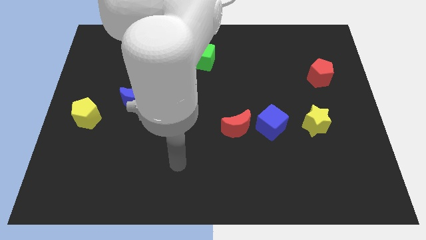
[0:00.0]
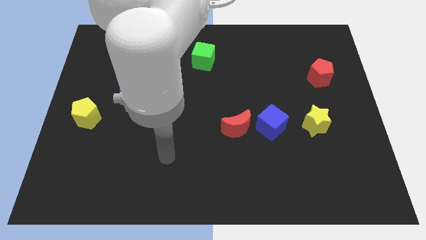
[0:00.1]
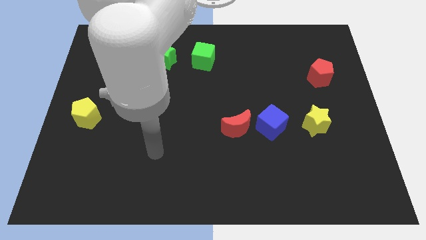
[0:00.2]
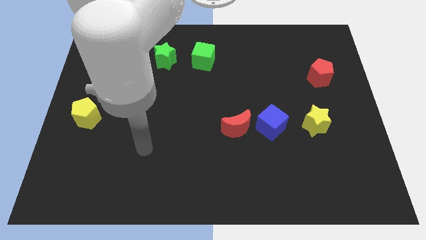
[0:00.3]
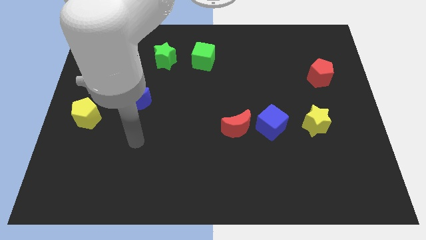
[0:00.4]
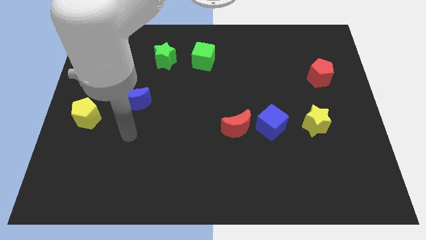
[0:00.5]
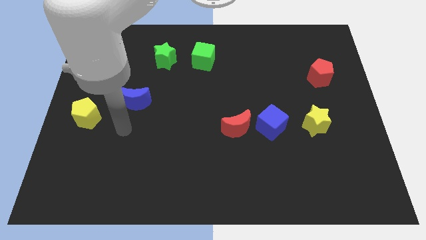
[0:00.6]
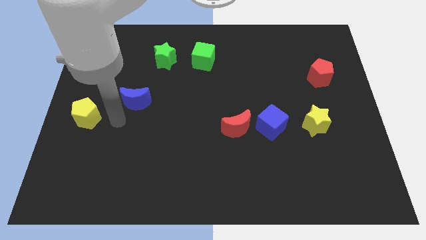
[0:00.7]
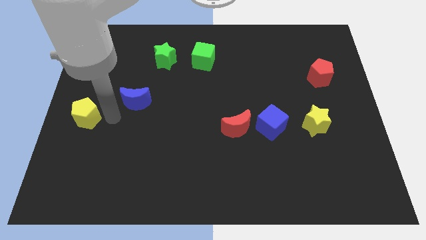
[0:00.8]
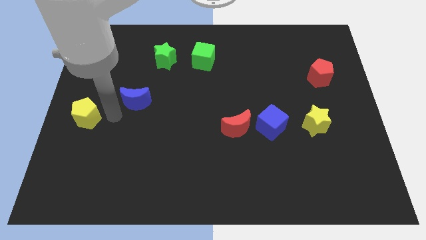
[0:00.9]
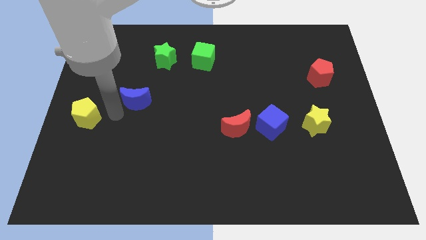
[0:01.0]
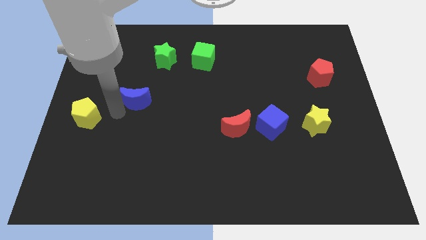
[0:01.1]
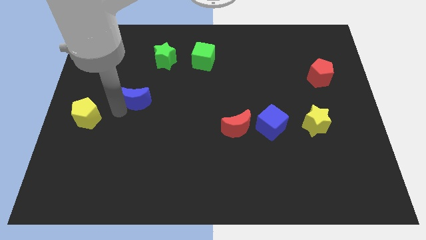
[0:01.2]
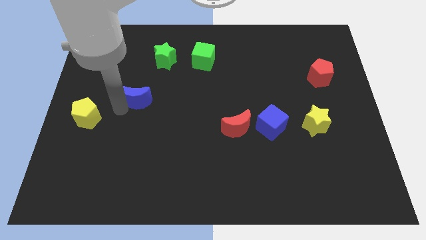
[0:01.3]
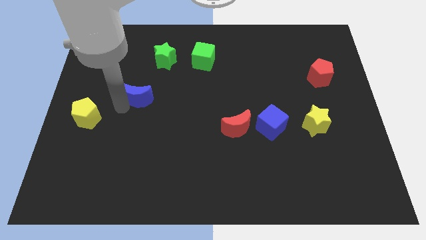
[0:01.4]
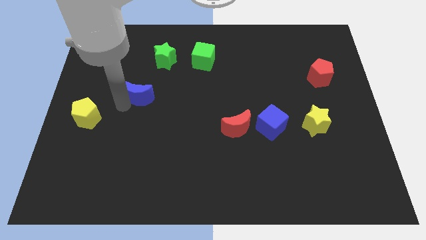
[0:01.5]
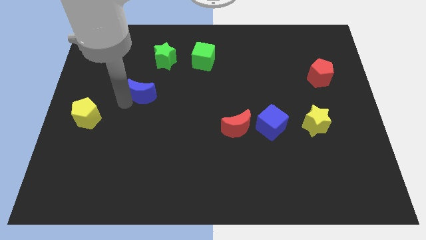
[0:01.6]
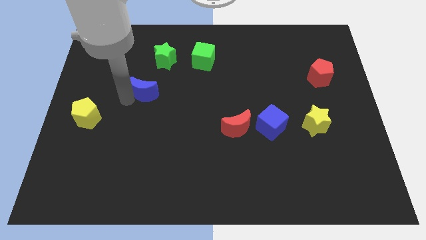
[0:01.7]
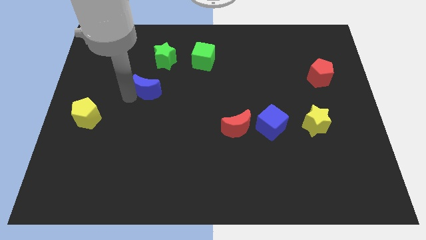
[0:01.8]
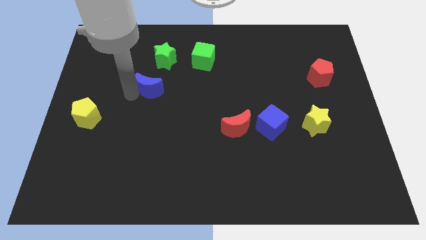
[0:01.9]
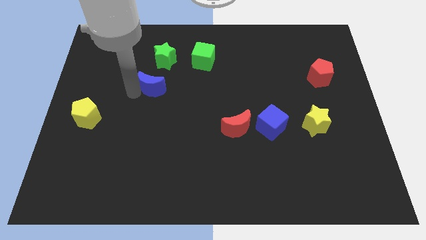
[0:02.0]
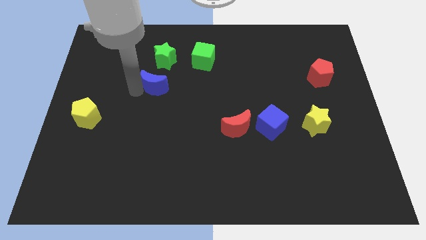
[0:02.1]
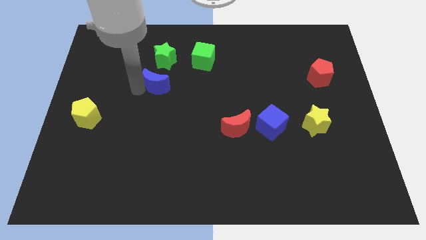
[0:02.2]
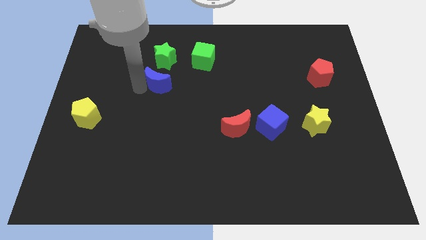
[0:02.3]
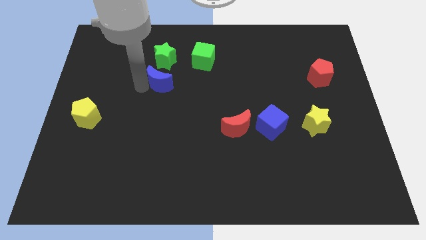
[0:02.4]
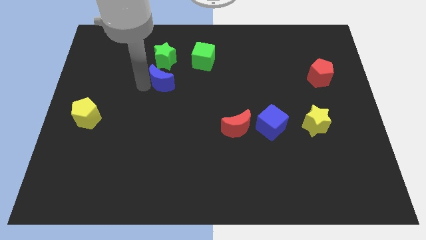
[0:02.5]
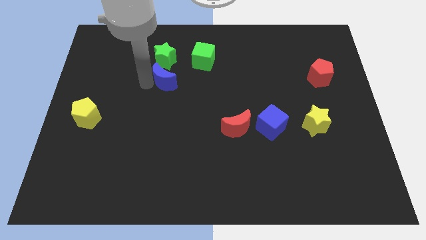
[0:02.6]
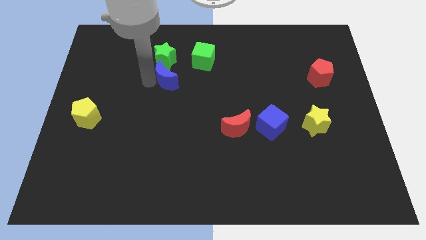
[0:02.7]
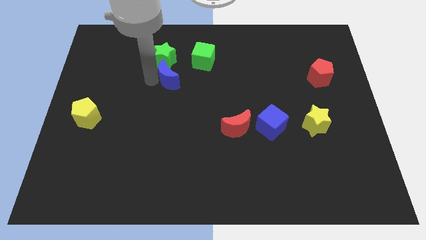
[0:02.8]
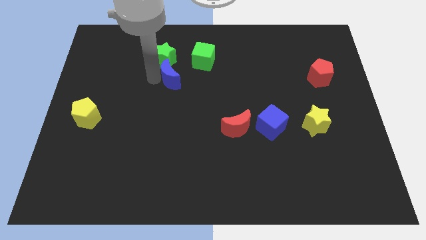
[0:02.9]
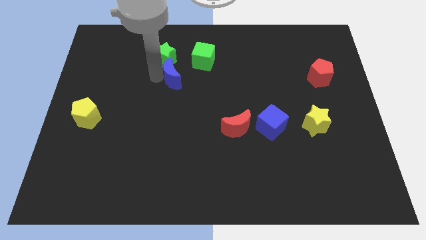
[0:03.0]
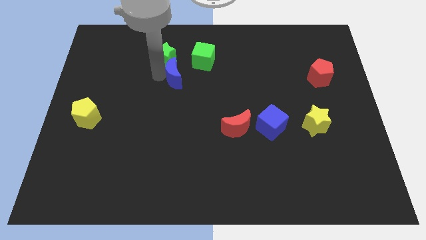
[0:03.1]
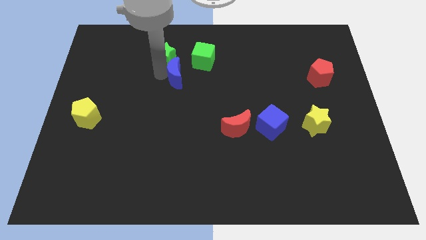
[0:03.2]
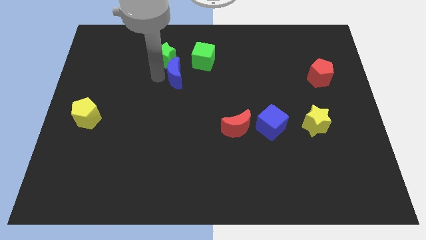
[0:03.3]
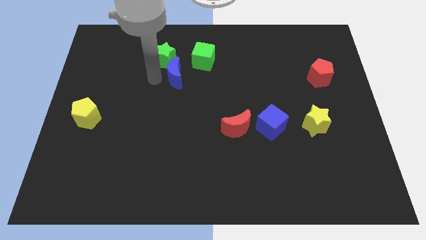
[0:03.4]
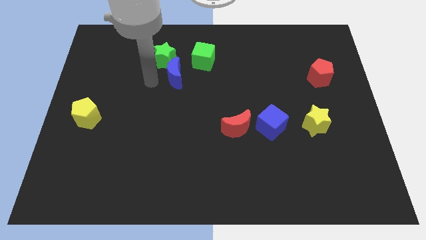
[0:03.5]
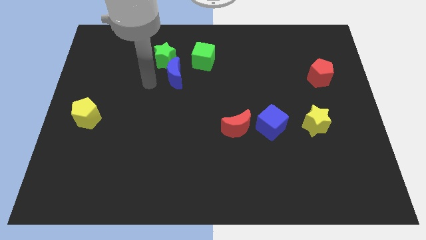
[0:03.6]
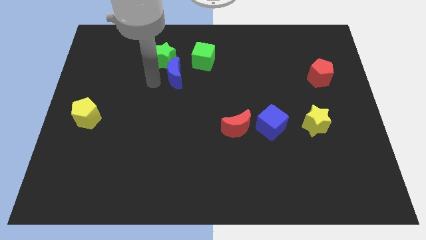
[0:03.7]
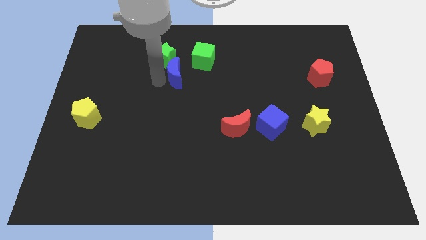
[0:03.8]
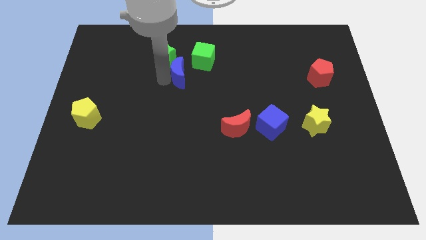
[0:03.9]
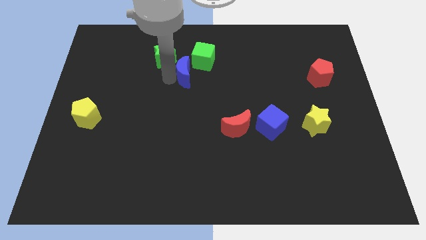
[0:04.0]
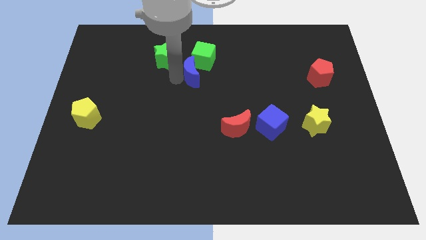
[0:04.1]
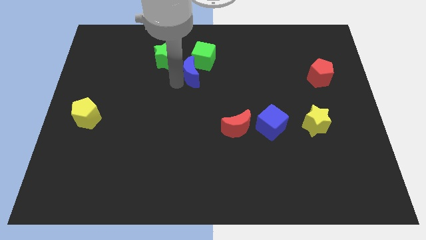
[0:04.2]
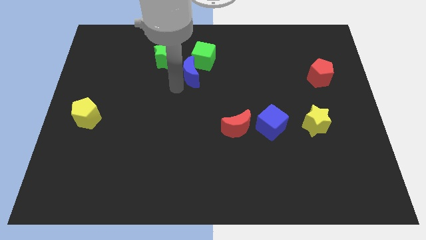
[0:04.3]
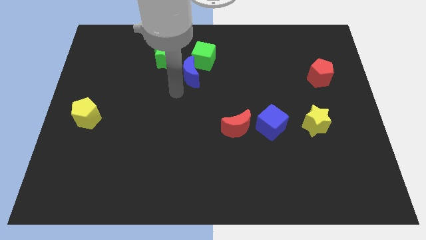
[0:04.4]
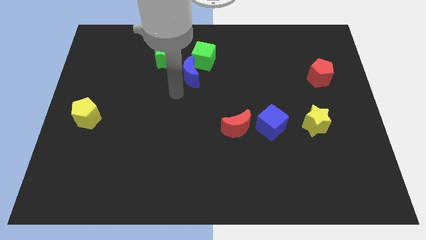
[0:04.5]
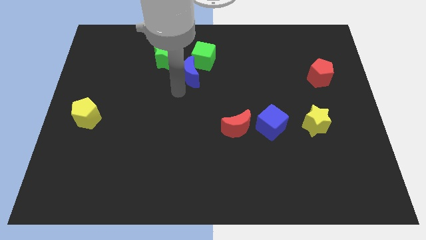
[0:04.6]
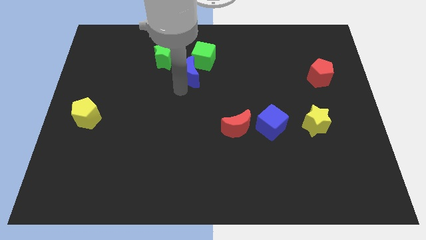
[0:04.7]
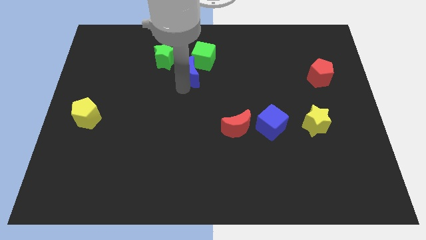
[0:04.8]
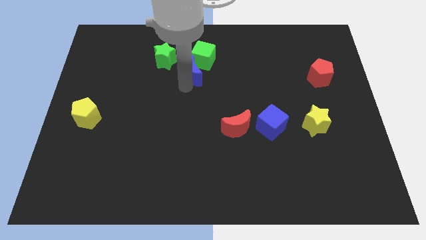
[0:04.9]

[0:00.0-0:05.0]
slide the blue moon towards the green cube

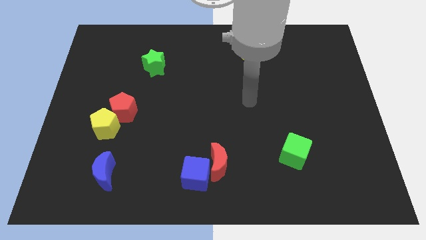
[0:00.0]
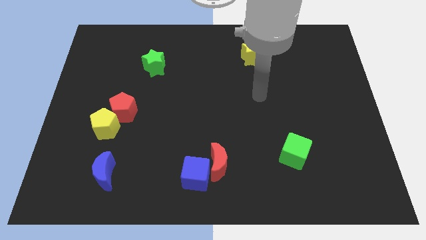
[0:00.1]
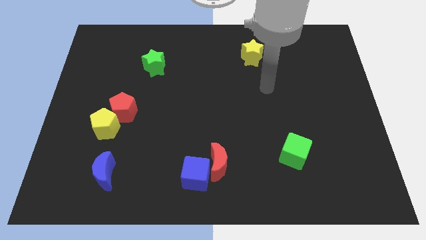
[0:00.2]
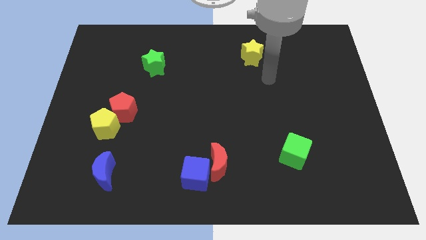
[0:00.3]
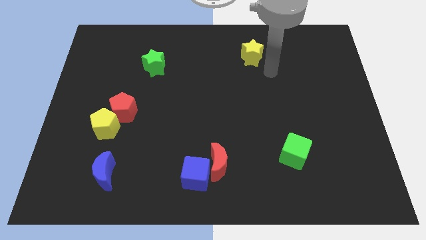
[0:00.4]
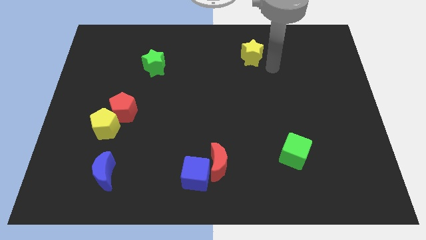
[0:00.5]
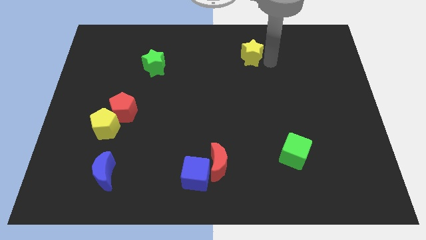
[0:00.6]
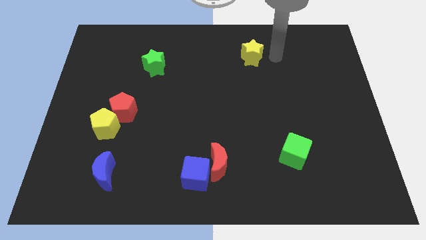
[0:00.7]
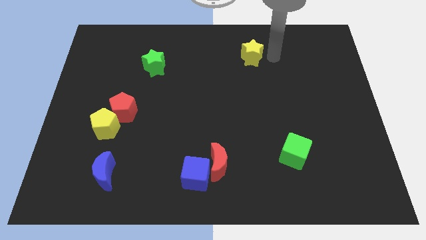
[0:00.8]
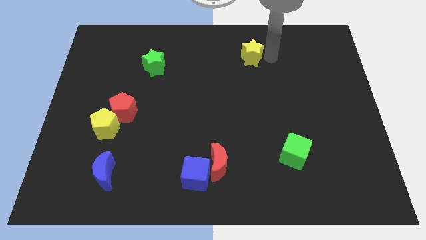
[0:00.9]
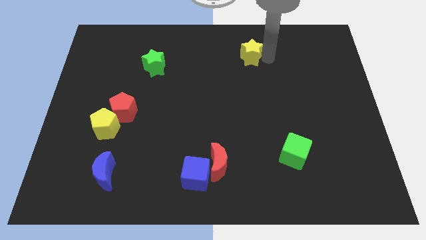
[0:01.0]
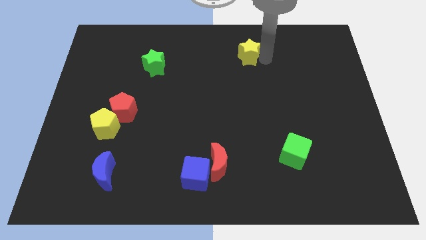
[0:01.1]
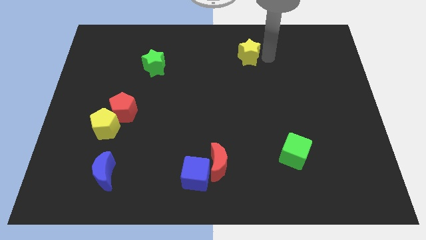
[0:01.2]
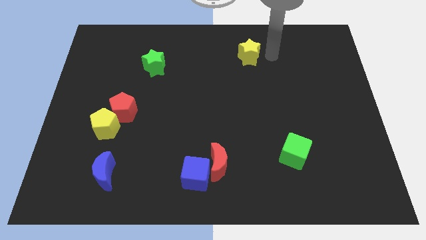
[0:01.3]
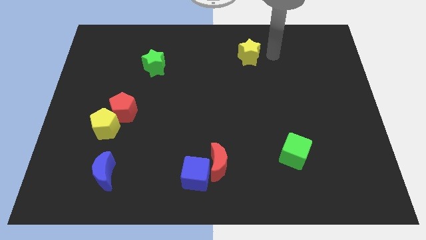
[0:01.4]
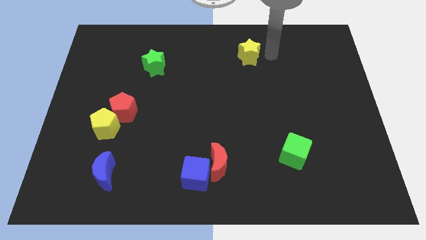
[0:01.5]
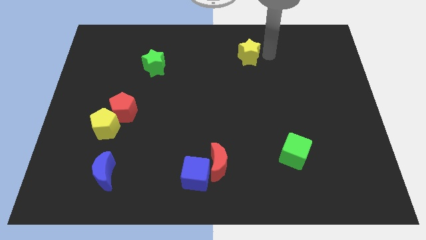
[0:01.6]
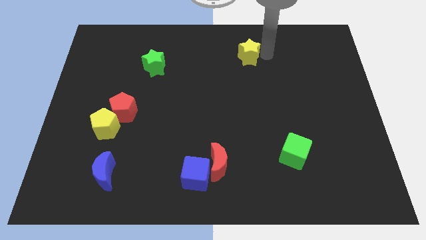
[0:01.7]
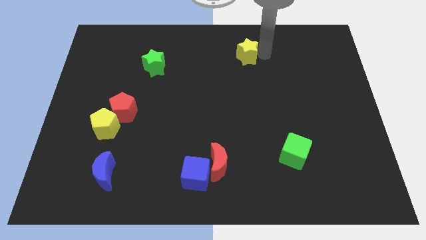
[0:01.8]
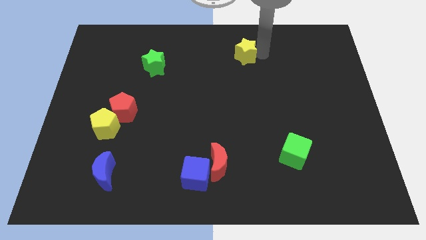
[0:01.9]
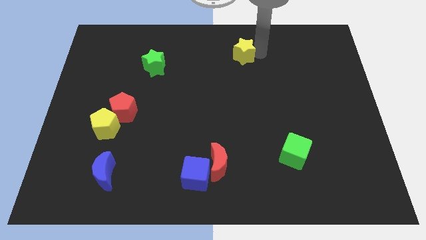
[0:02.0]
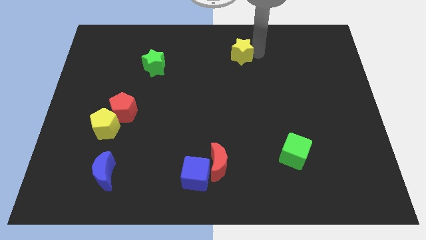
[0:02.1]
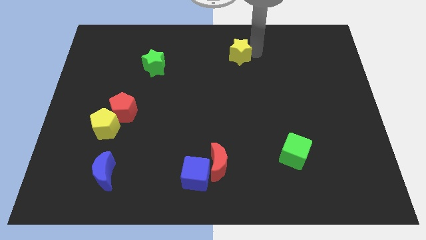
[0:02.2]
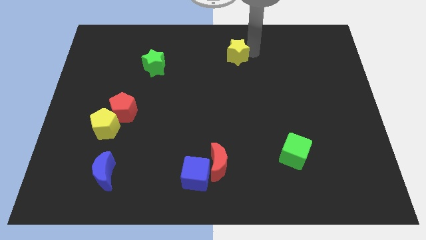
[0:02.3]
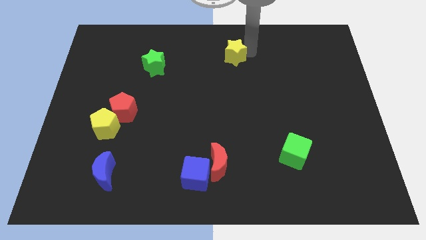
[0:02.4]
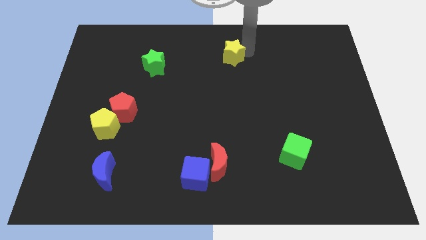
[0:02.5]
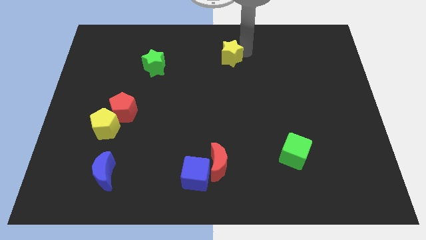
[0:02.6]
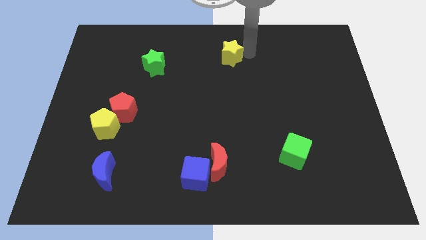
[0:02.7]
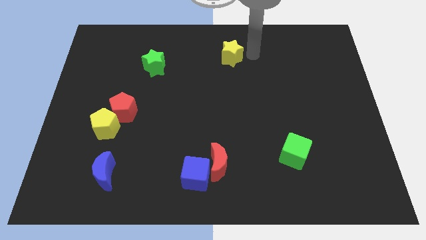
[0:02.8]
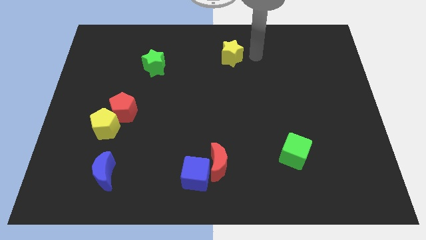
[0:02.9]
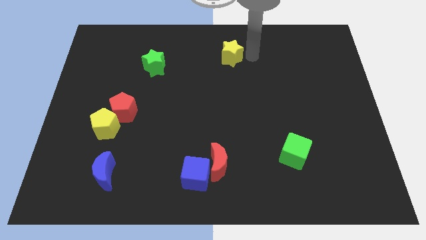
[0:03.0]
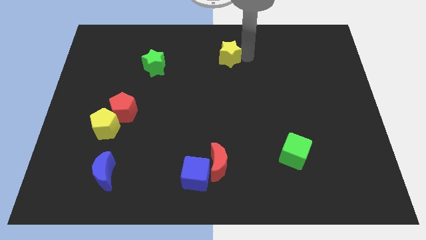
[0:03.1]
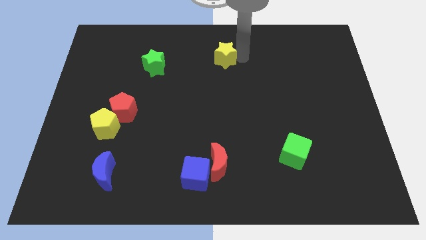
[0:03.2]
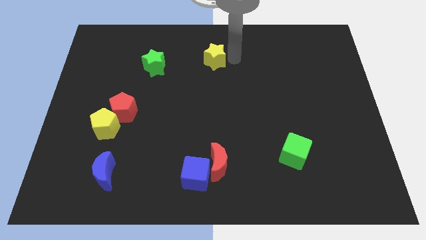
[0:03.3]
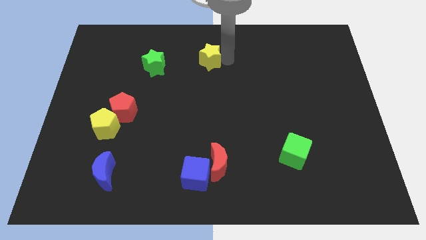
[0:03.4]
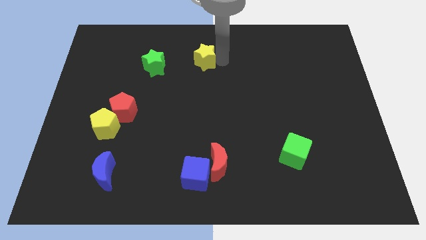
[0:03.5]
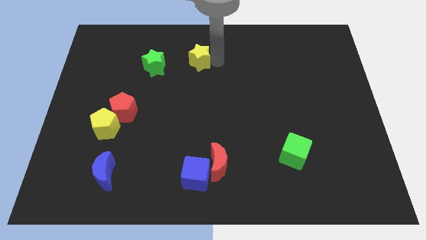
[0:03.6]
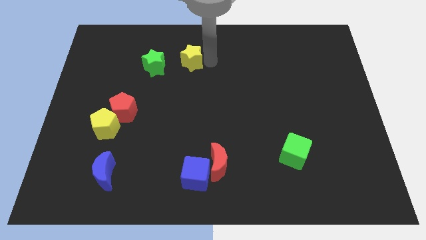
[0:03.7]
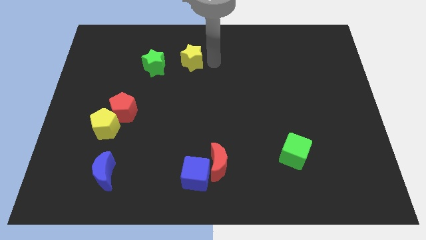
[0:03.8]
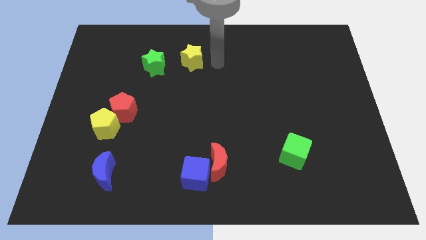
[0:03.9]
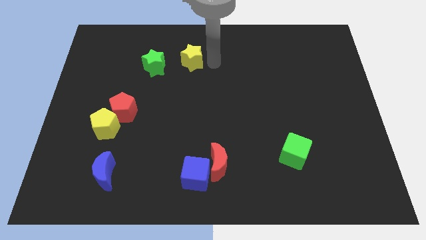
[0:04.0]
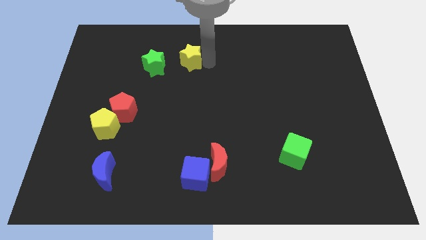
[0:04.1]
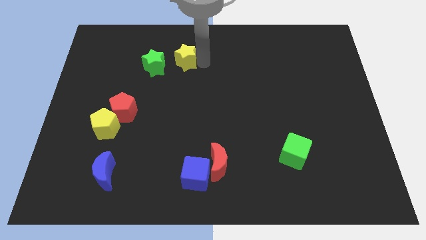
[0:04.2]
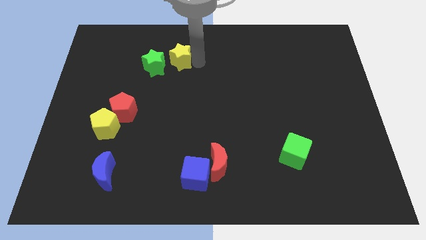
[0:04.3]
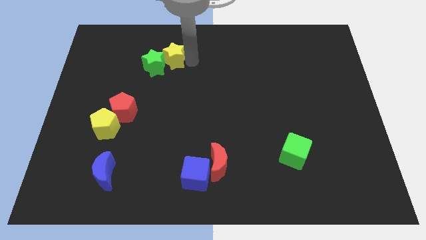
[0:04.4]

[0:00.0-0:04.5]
slide the yellow star close to the green star
